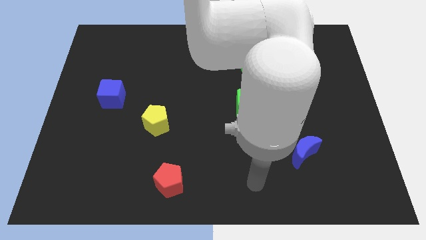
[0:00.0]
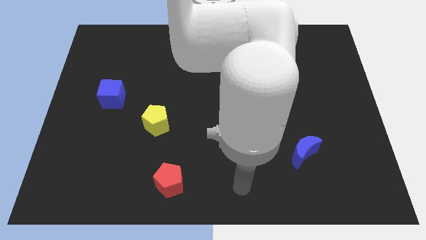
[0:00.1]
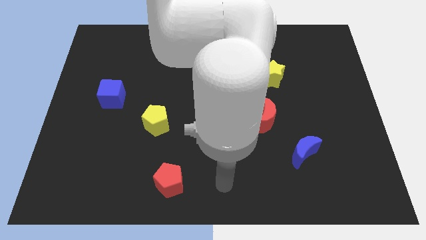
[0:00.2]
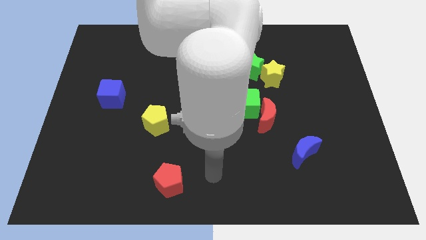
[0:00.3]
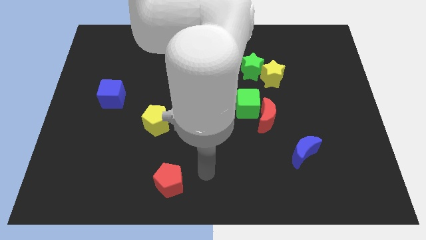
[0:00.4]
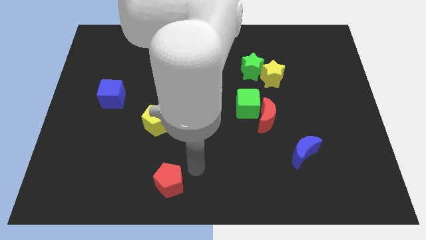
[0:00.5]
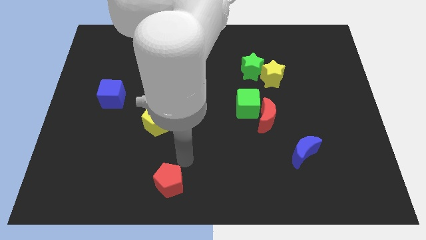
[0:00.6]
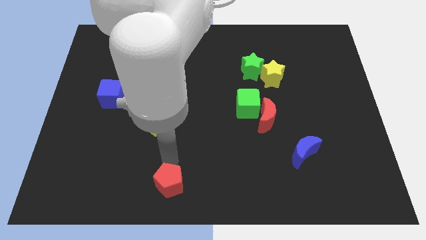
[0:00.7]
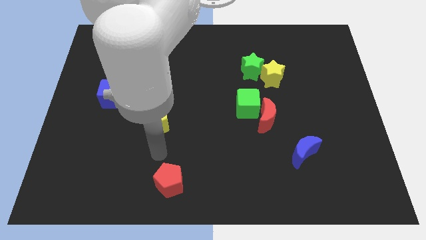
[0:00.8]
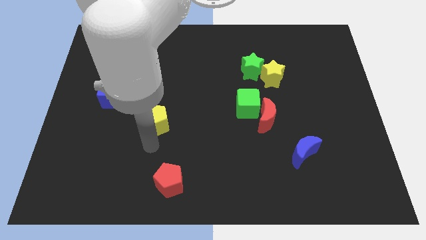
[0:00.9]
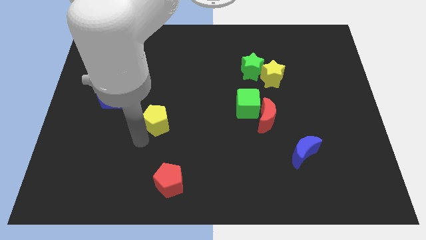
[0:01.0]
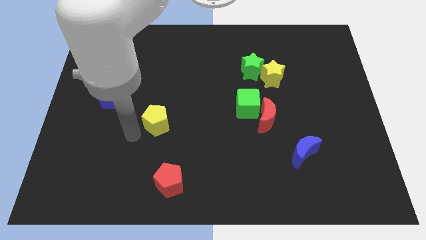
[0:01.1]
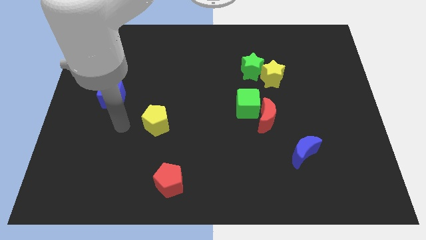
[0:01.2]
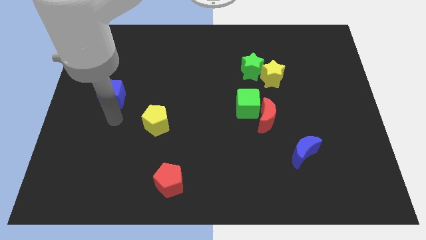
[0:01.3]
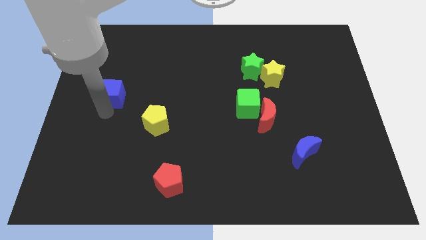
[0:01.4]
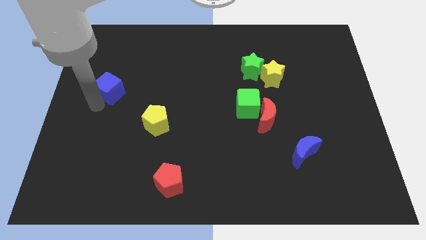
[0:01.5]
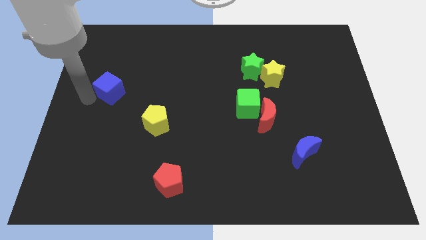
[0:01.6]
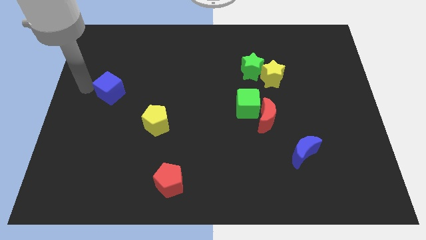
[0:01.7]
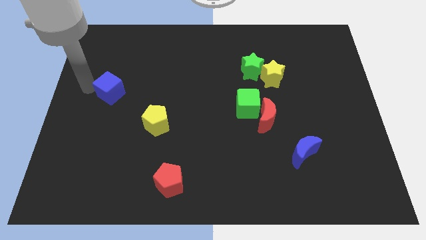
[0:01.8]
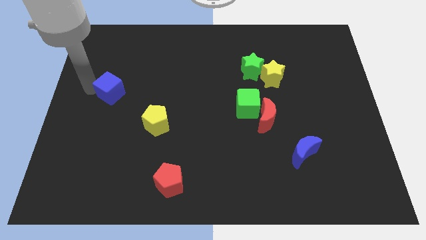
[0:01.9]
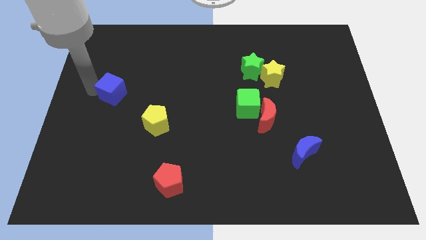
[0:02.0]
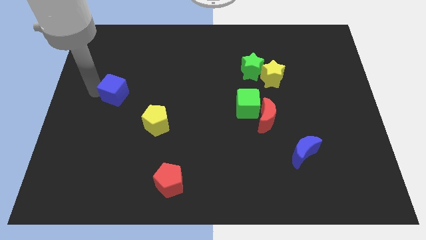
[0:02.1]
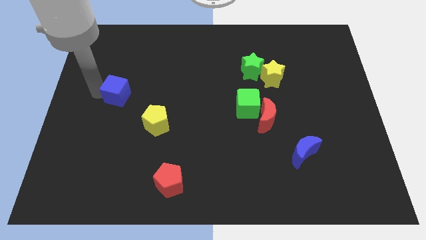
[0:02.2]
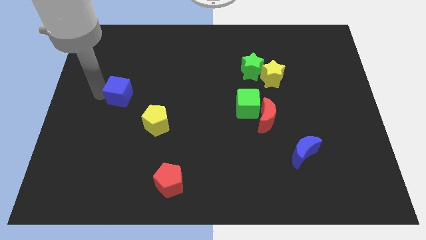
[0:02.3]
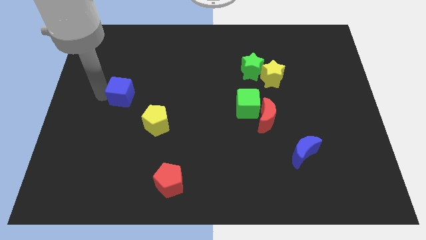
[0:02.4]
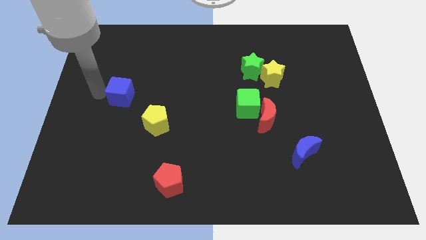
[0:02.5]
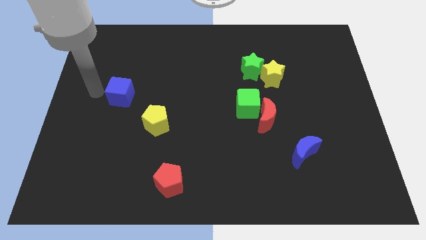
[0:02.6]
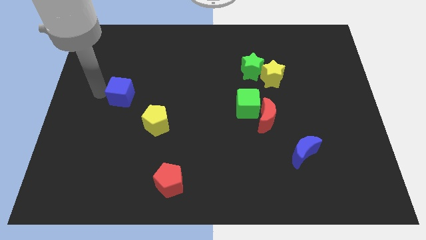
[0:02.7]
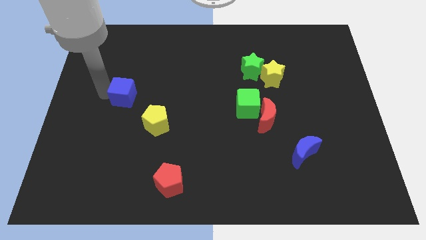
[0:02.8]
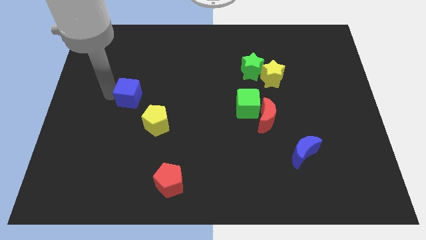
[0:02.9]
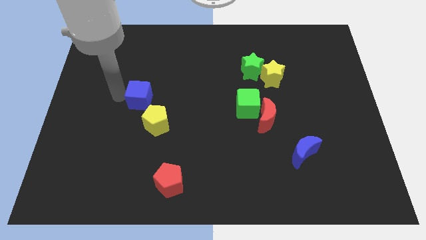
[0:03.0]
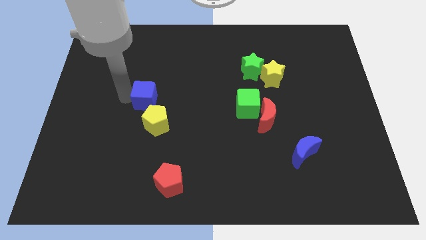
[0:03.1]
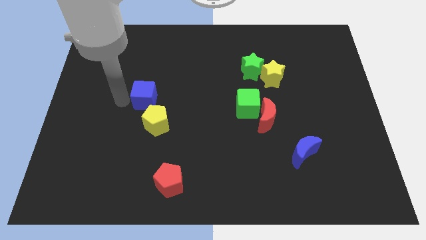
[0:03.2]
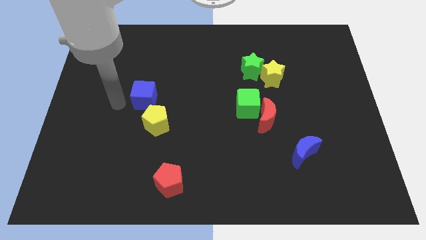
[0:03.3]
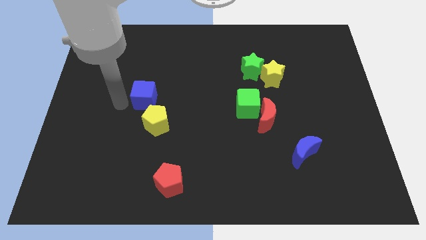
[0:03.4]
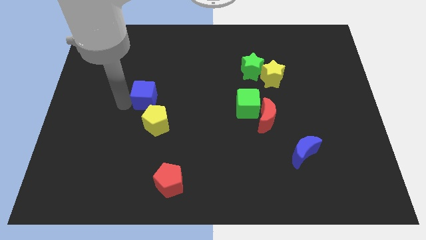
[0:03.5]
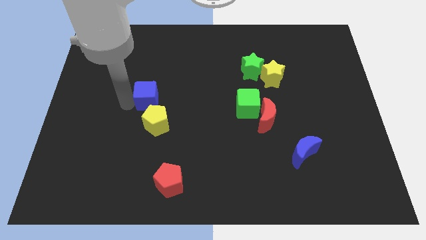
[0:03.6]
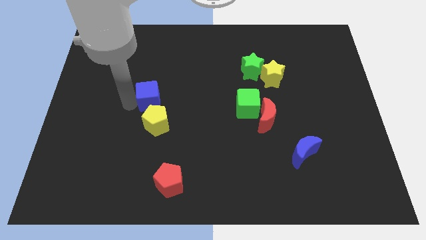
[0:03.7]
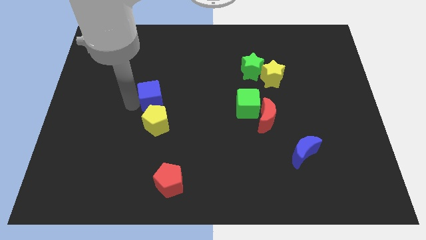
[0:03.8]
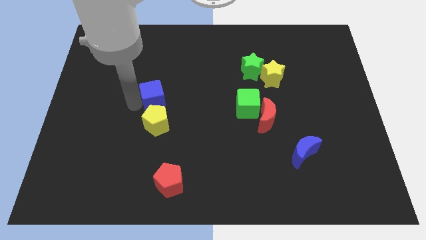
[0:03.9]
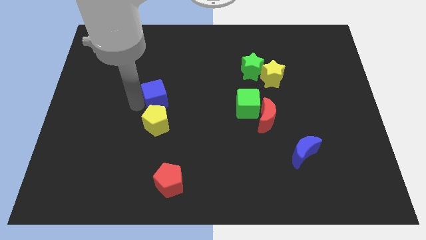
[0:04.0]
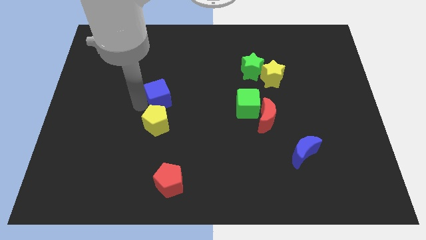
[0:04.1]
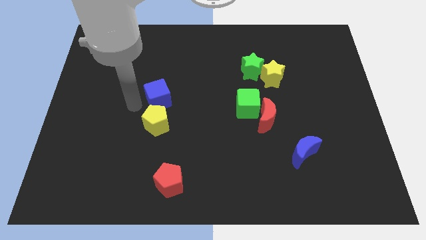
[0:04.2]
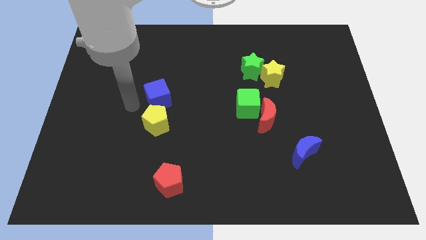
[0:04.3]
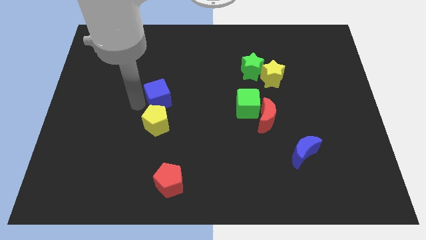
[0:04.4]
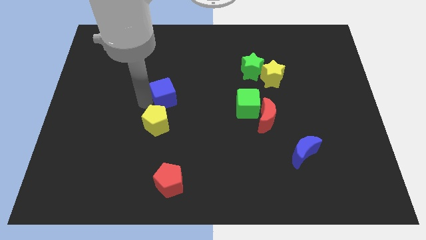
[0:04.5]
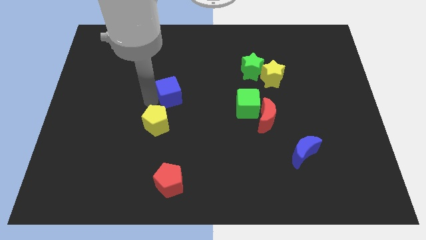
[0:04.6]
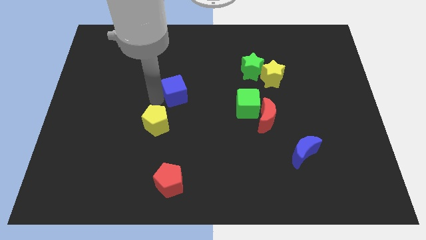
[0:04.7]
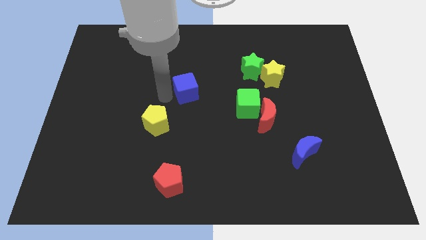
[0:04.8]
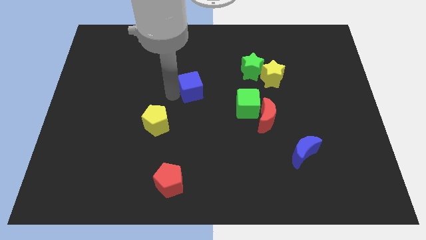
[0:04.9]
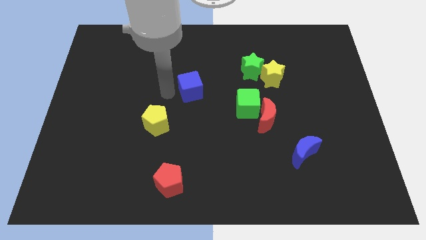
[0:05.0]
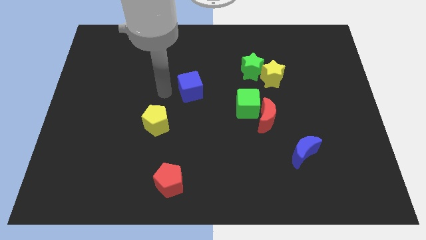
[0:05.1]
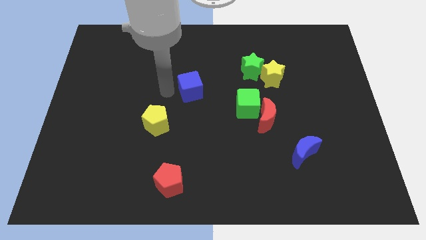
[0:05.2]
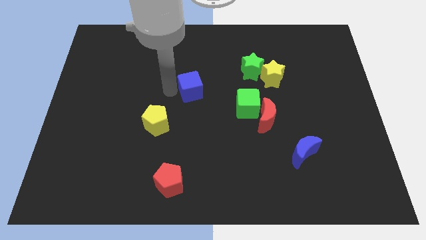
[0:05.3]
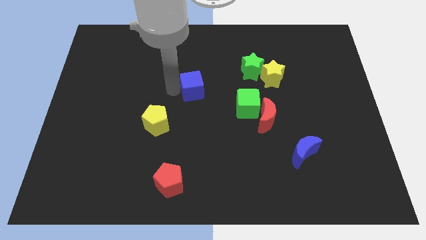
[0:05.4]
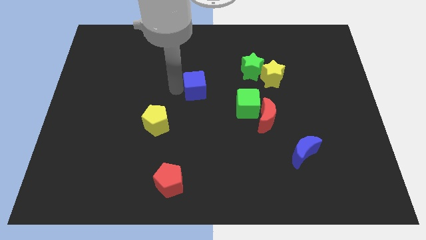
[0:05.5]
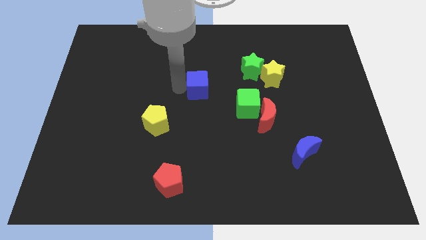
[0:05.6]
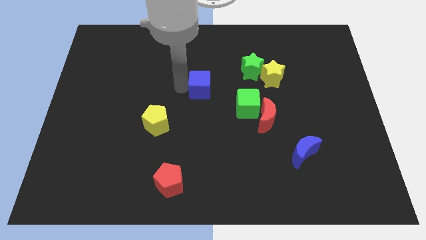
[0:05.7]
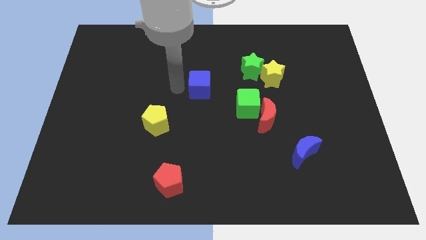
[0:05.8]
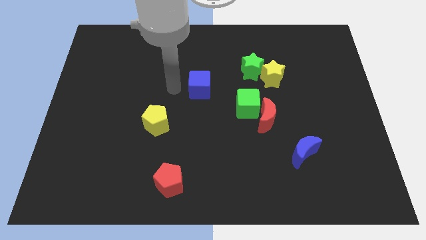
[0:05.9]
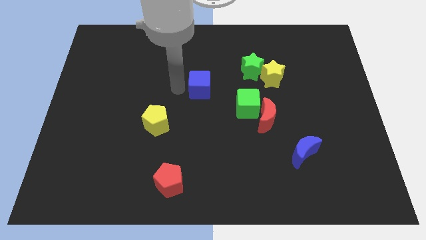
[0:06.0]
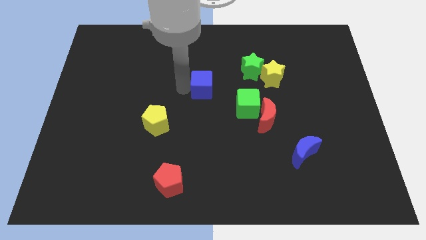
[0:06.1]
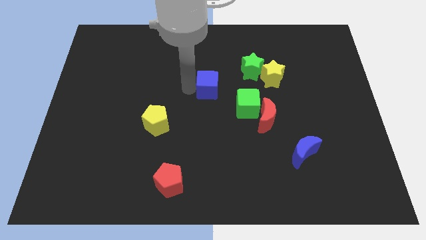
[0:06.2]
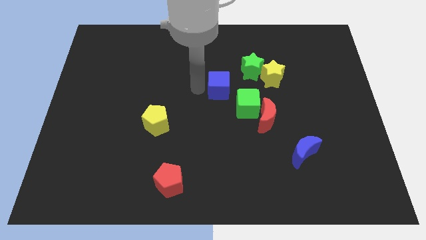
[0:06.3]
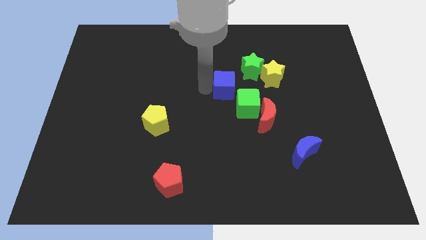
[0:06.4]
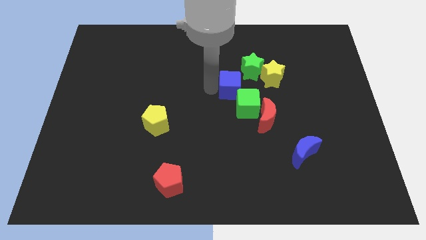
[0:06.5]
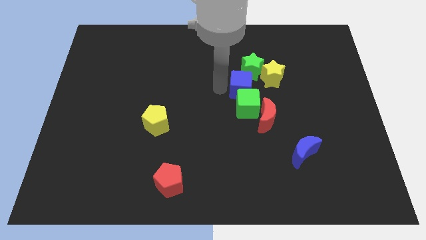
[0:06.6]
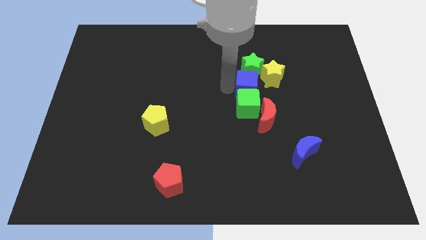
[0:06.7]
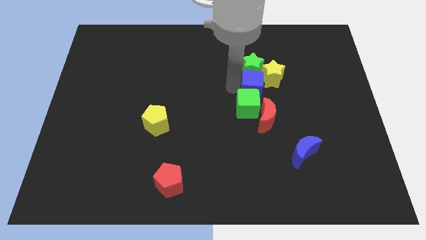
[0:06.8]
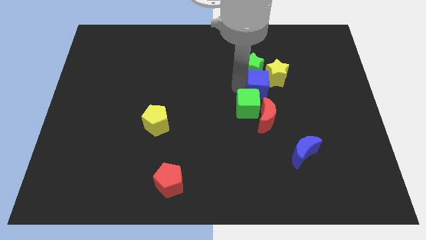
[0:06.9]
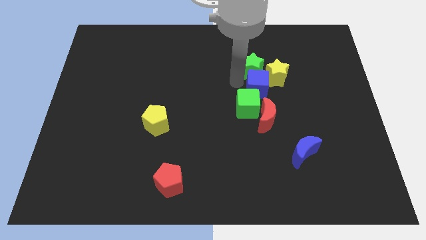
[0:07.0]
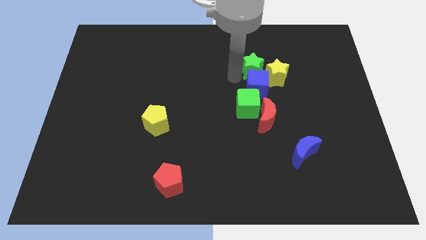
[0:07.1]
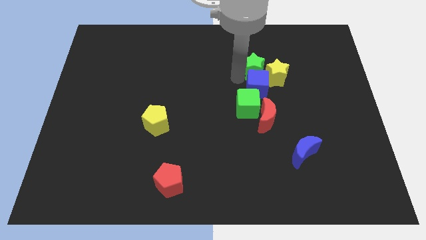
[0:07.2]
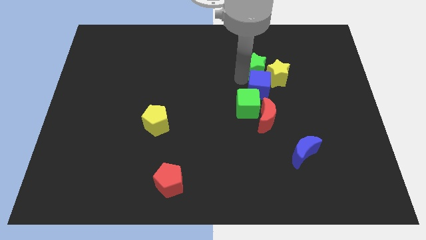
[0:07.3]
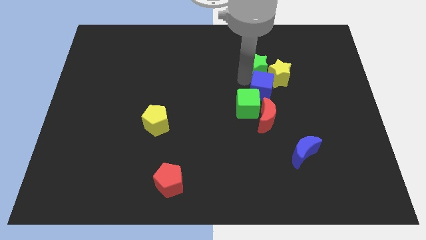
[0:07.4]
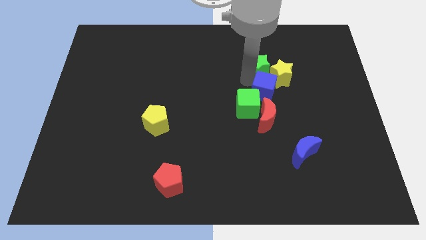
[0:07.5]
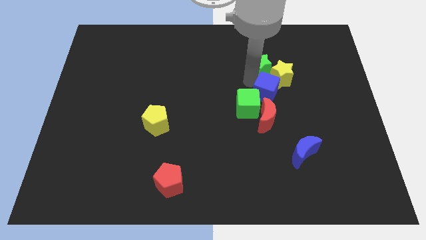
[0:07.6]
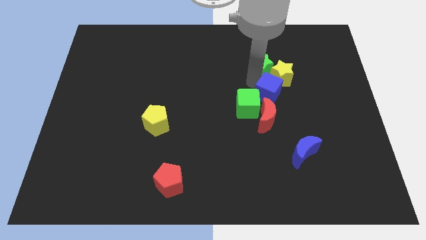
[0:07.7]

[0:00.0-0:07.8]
slide the blue cube diagonally up and to the right of the red moon
